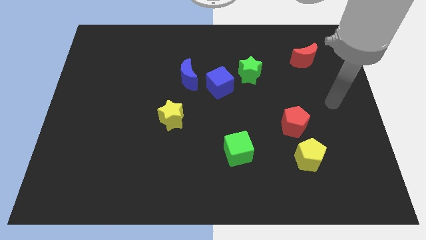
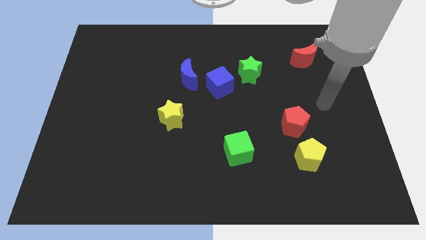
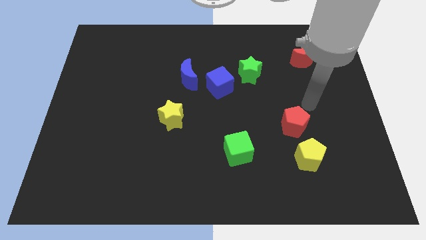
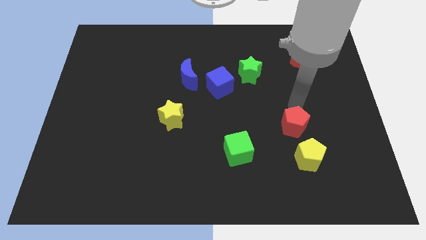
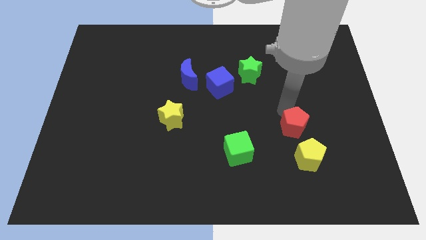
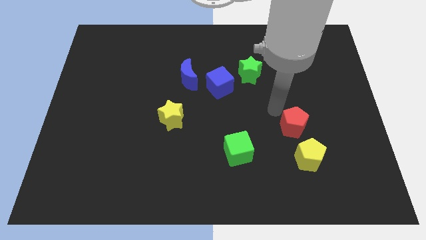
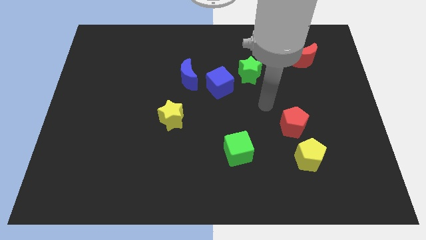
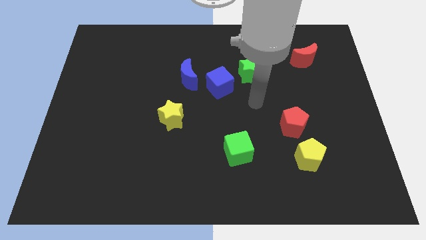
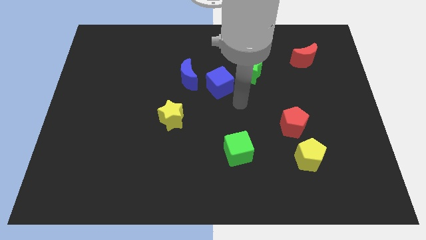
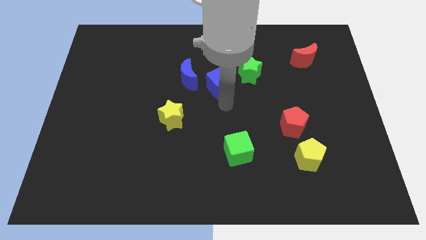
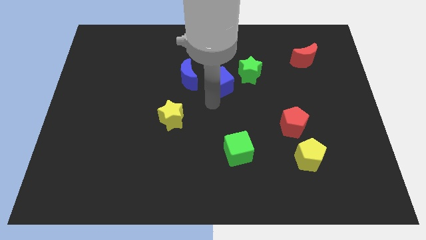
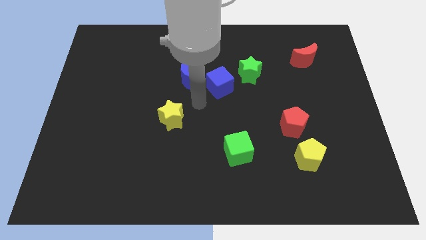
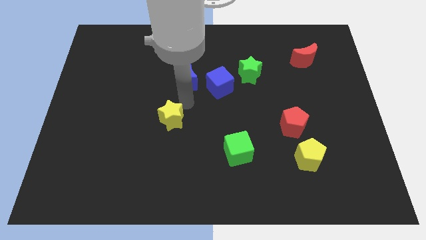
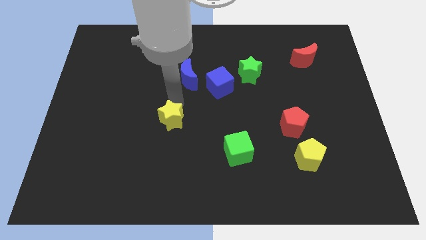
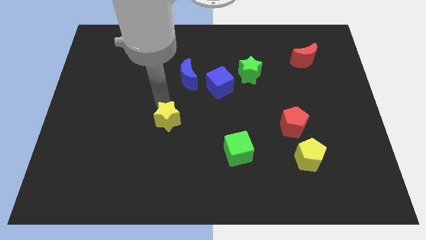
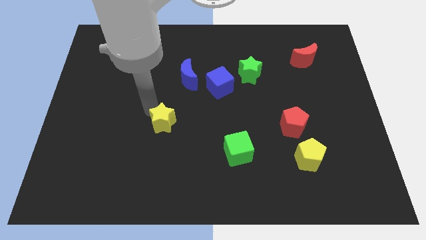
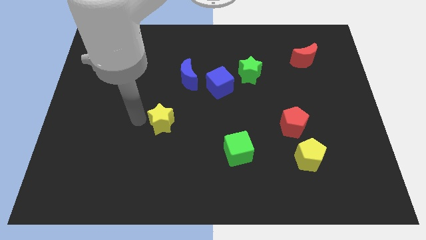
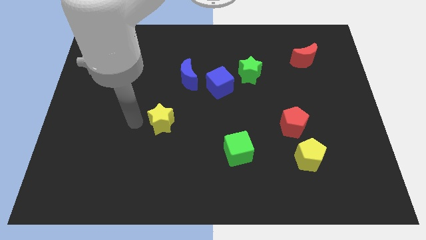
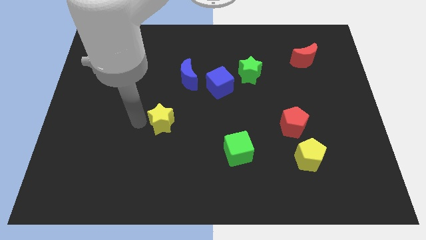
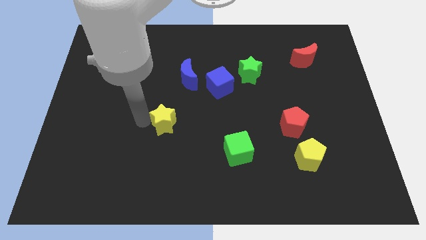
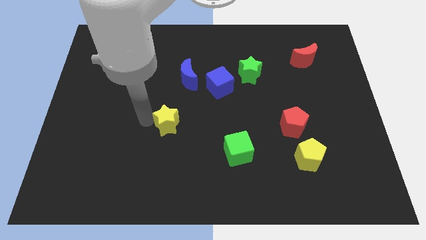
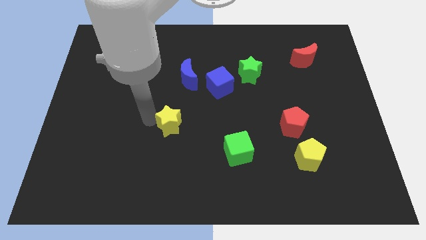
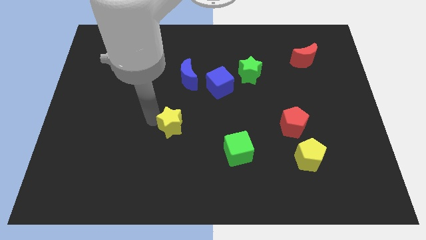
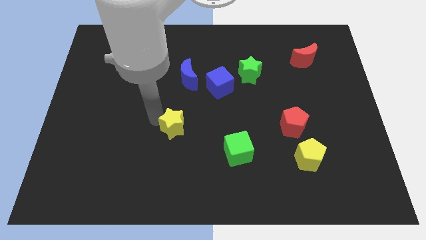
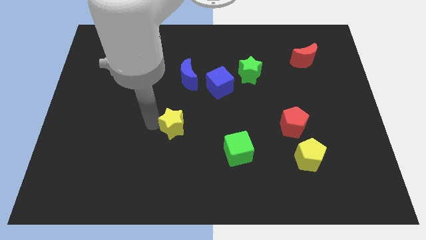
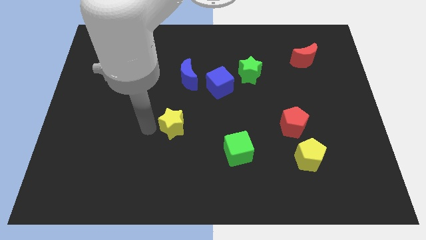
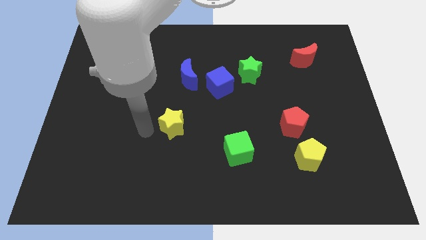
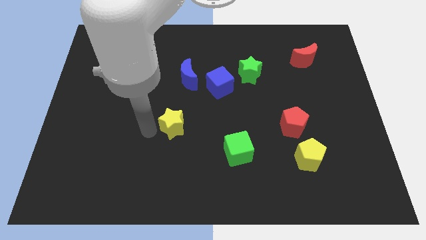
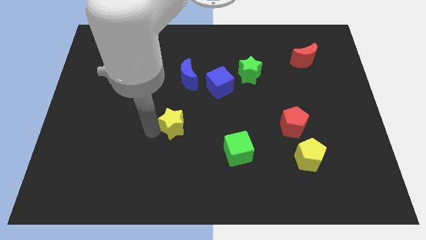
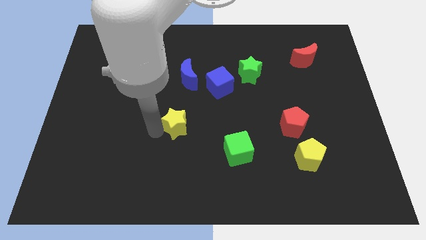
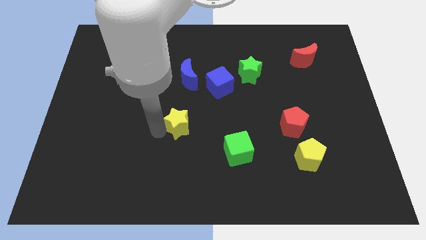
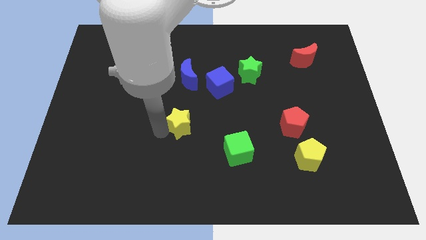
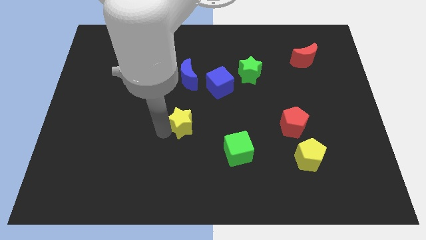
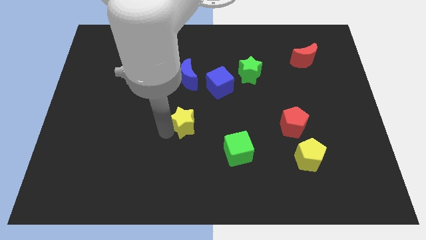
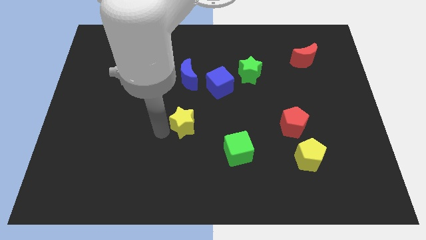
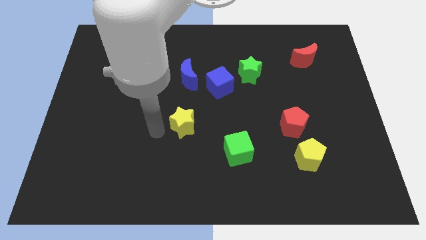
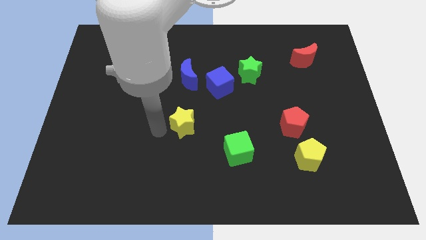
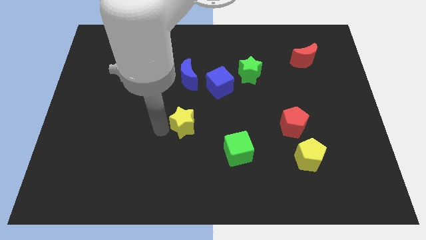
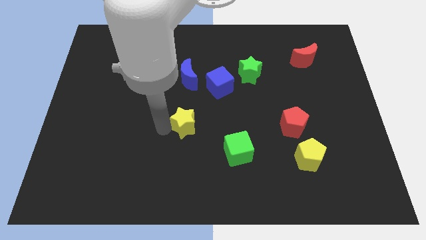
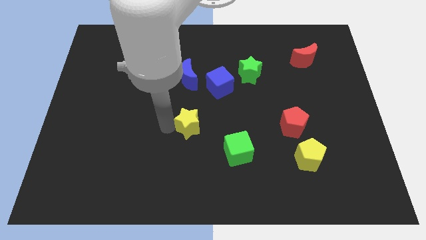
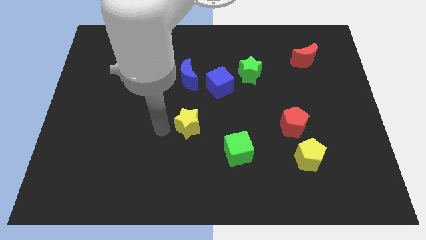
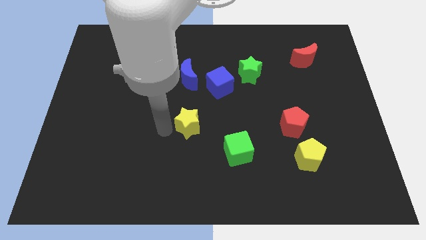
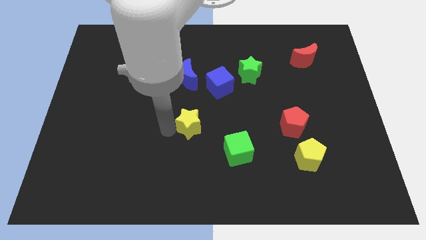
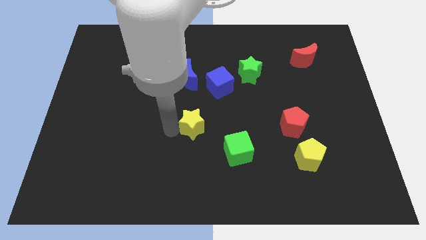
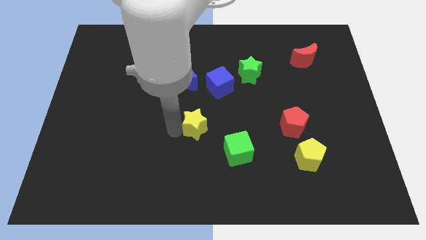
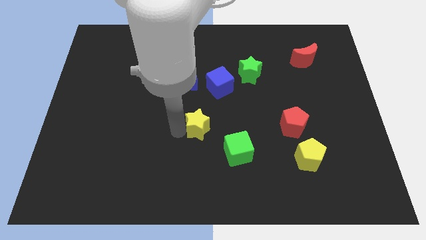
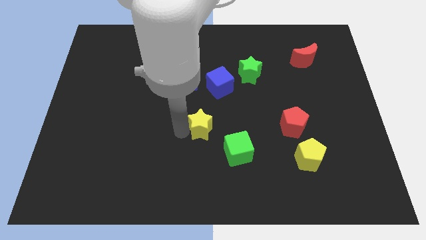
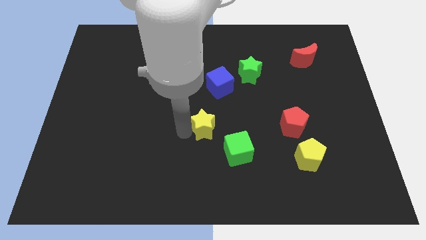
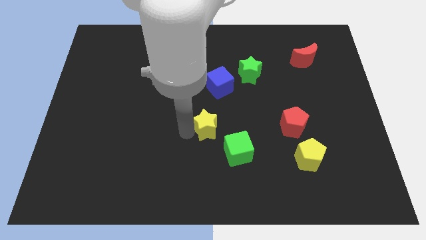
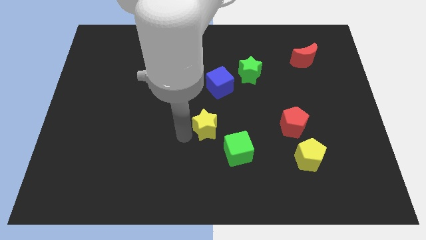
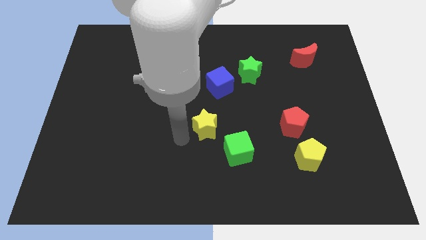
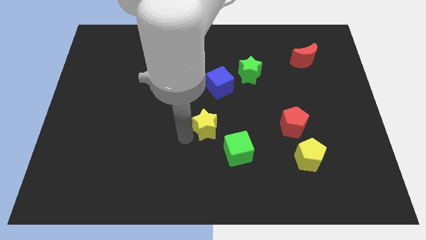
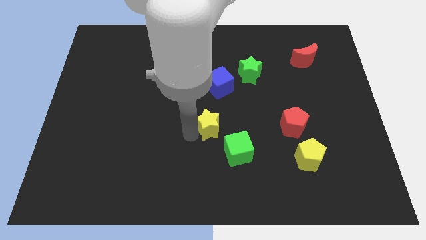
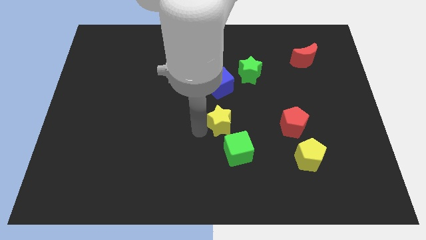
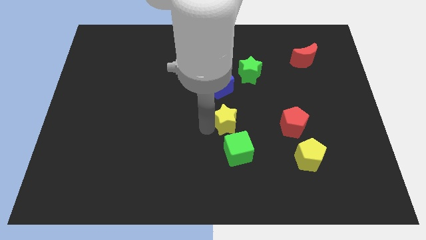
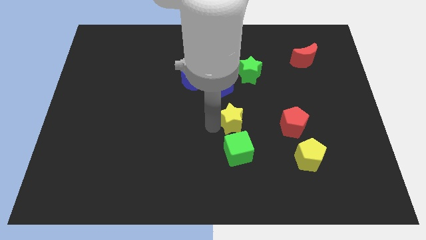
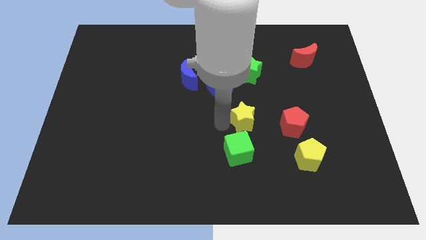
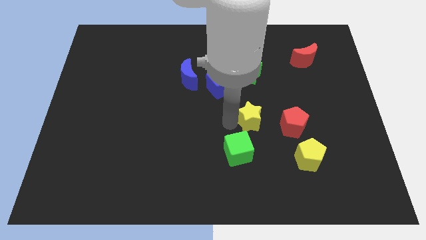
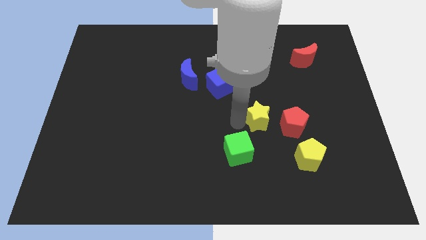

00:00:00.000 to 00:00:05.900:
move the yellow star diagonally up and to the left of the red pentagon

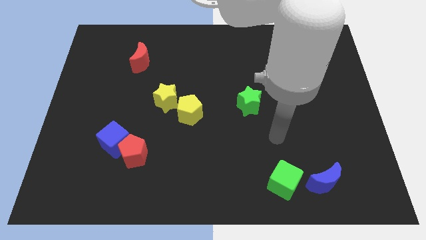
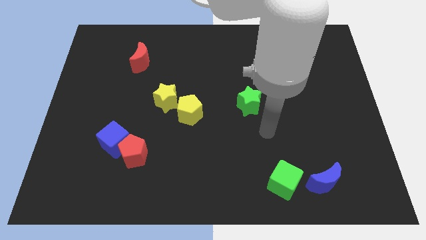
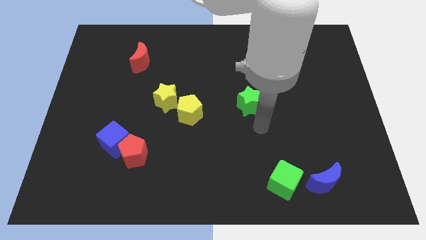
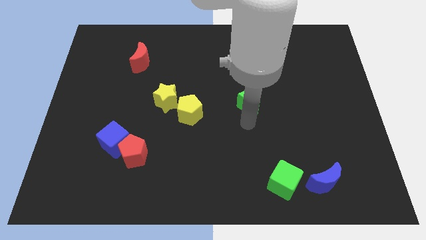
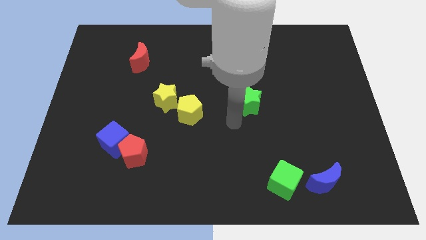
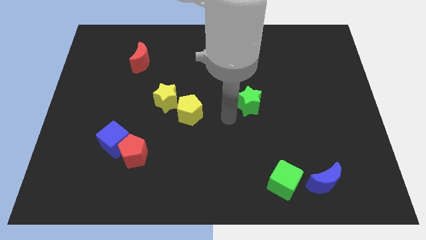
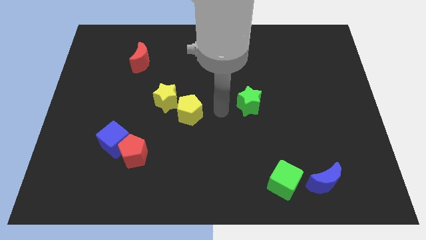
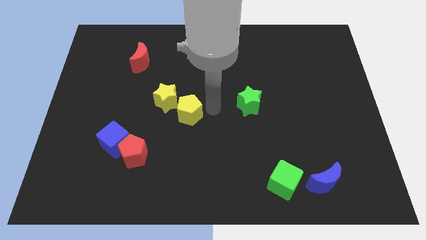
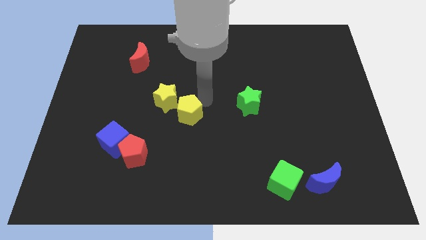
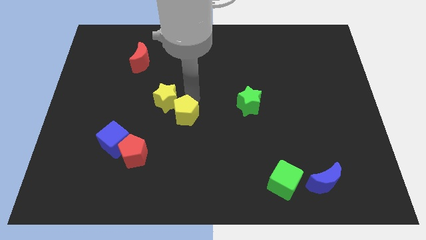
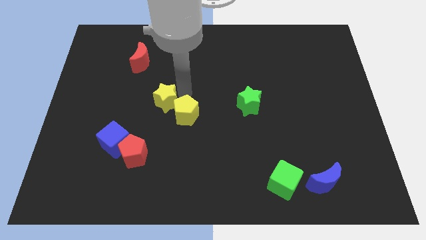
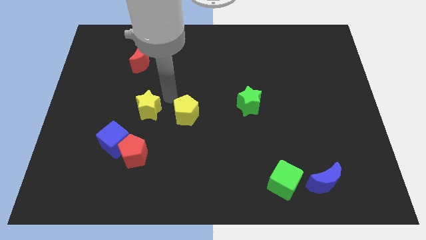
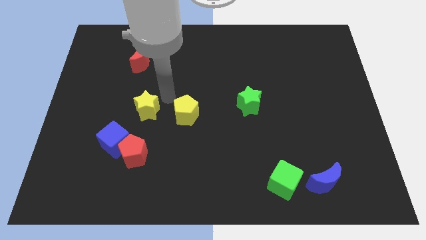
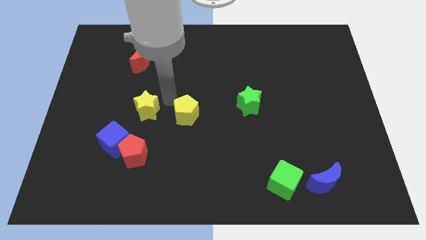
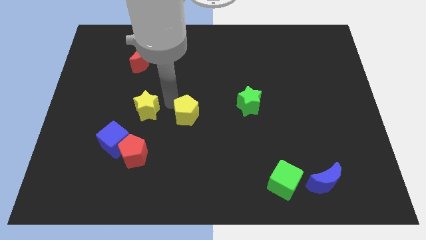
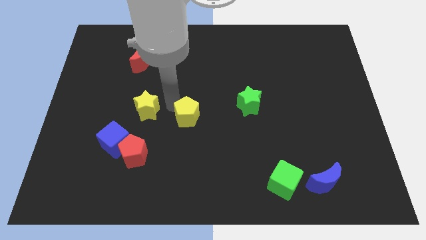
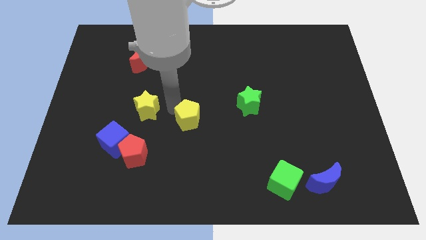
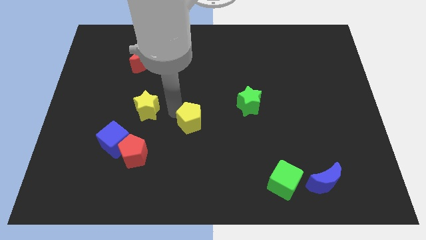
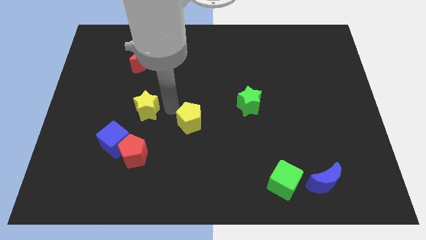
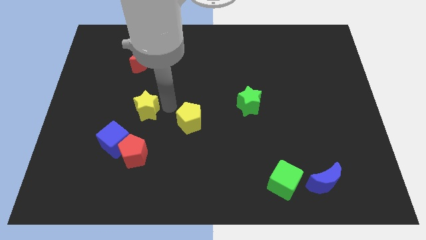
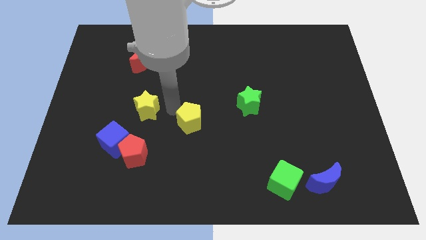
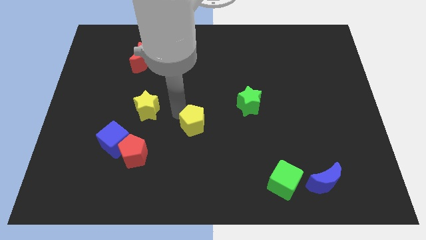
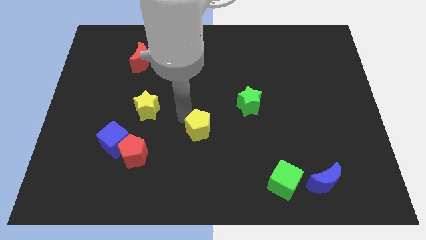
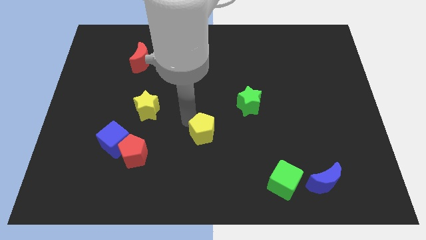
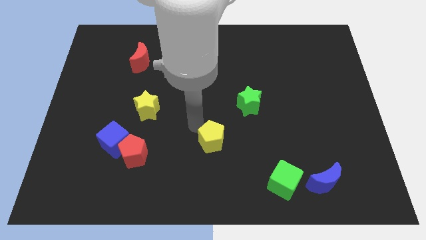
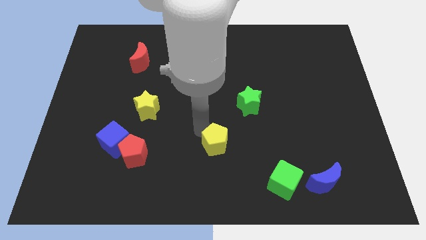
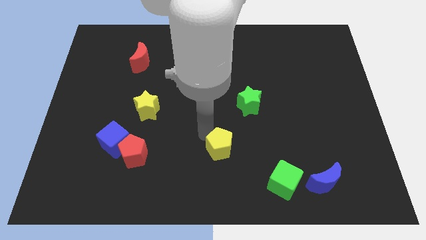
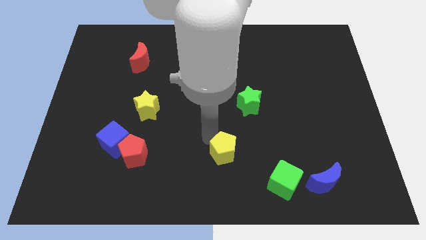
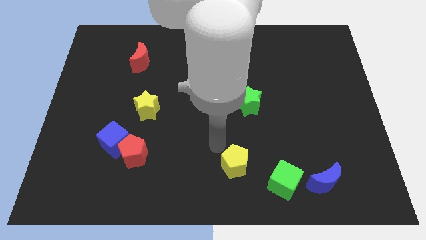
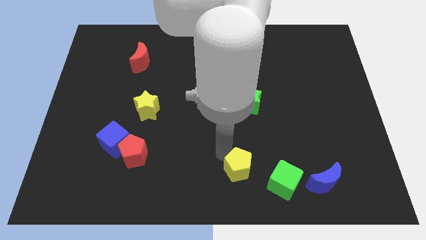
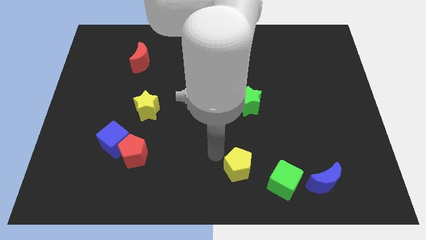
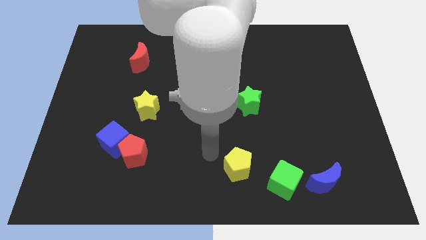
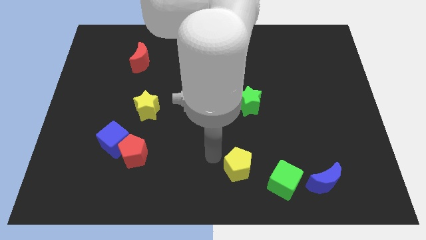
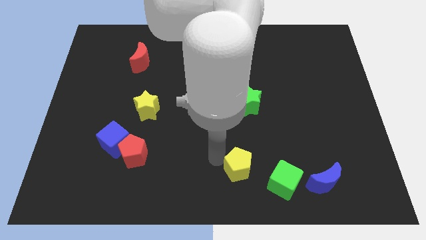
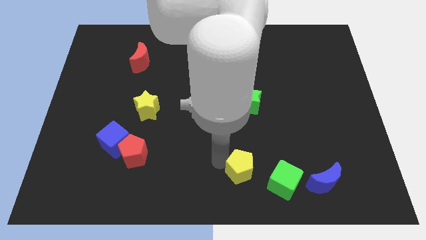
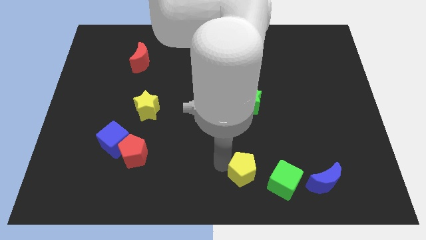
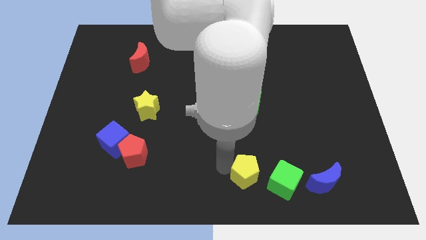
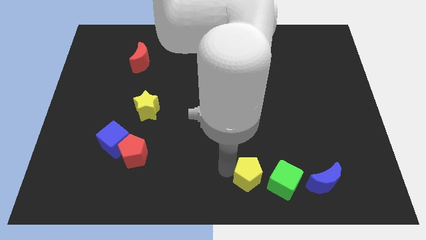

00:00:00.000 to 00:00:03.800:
slide the yellow pentagon just left of the blue moon
